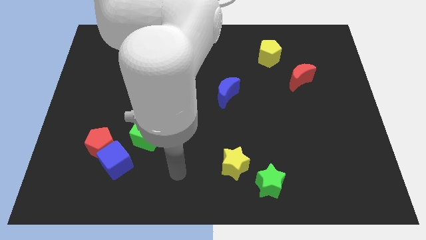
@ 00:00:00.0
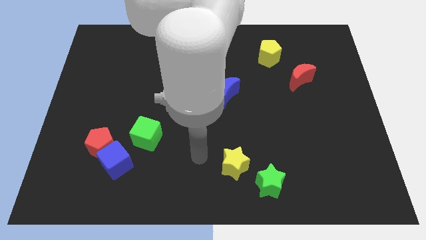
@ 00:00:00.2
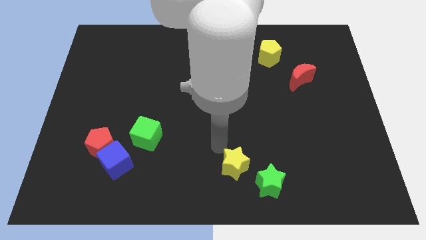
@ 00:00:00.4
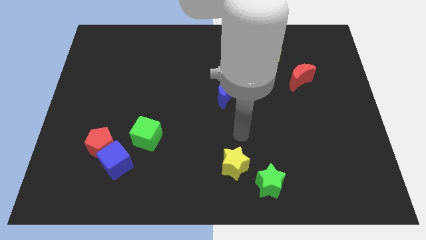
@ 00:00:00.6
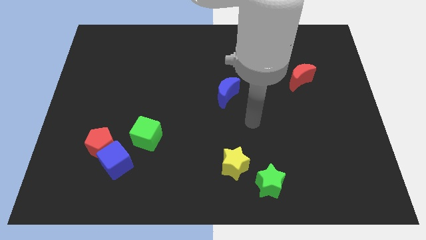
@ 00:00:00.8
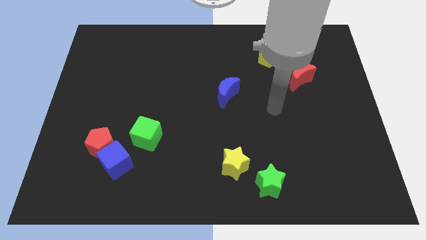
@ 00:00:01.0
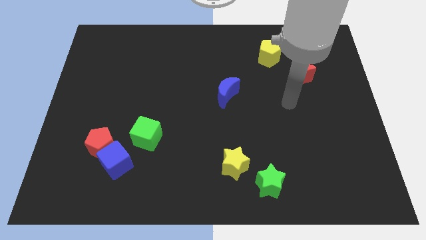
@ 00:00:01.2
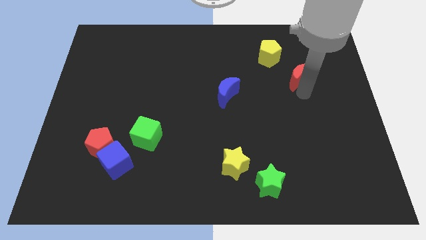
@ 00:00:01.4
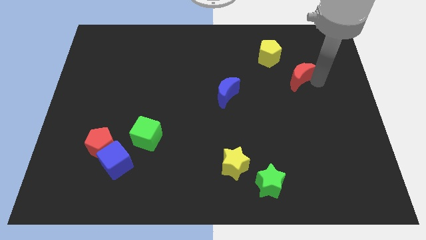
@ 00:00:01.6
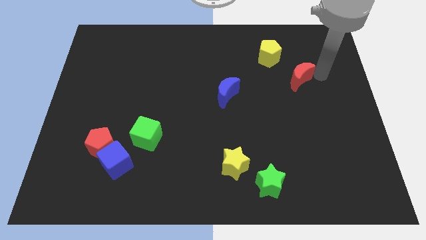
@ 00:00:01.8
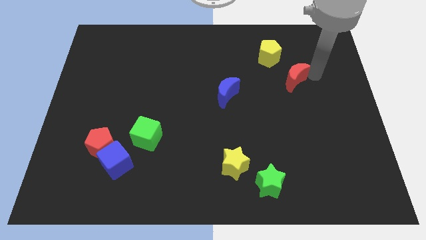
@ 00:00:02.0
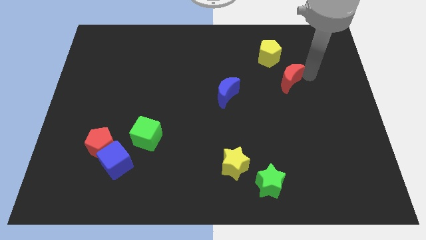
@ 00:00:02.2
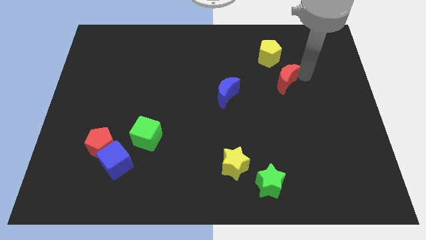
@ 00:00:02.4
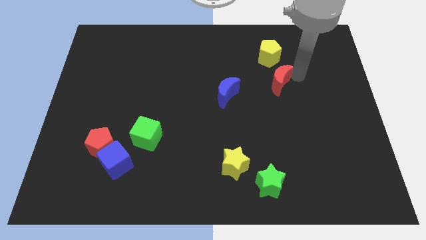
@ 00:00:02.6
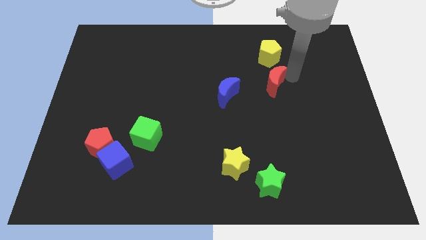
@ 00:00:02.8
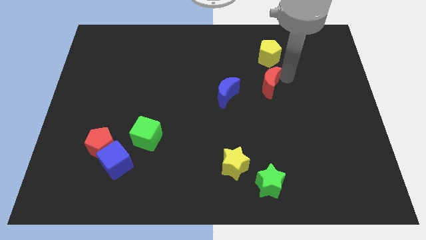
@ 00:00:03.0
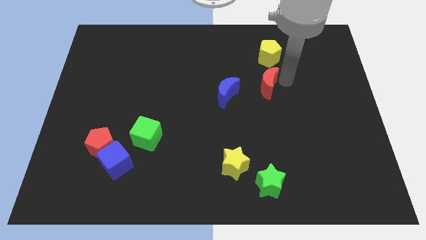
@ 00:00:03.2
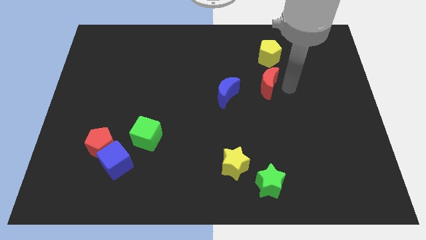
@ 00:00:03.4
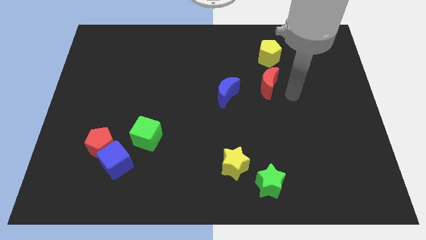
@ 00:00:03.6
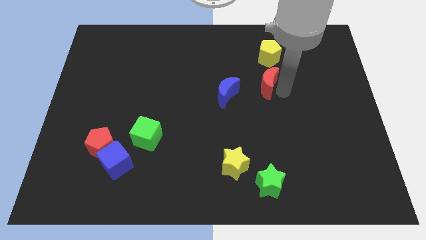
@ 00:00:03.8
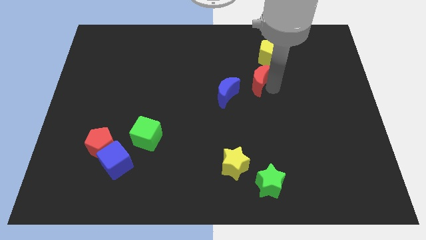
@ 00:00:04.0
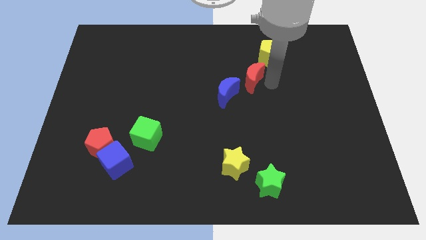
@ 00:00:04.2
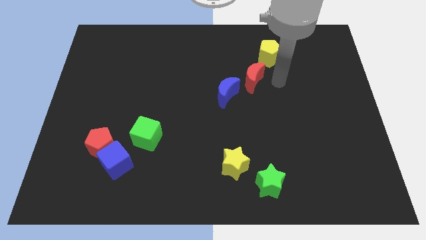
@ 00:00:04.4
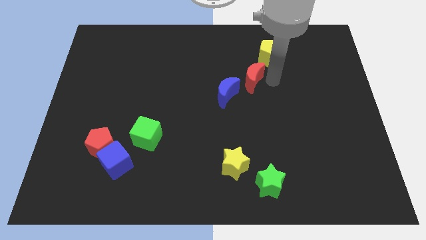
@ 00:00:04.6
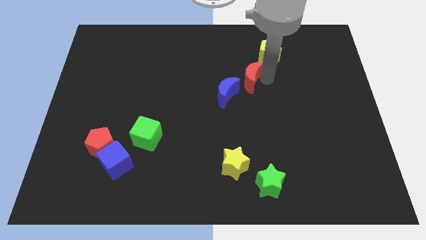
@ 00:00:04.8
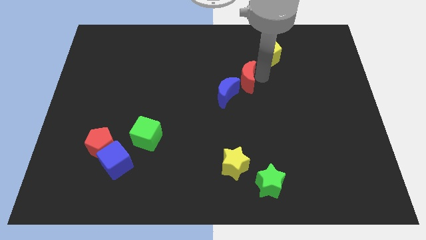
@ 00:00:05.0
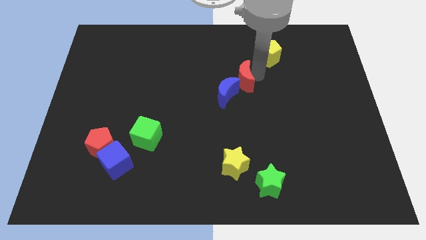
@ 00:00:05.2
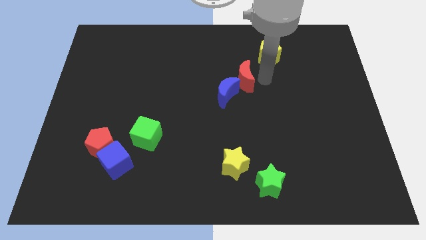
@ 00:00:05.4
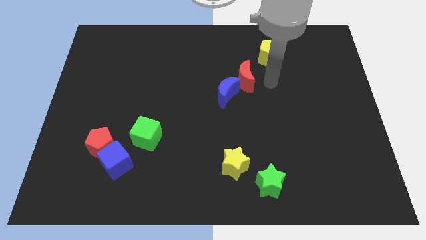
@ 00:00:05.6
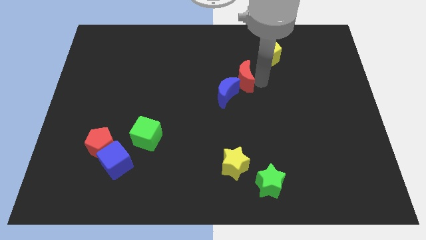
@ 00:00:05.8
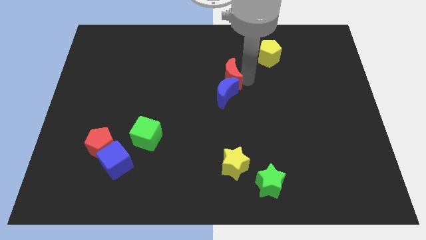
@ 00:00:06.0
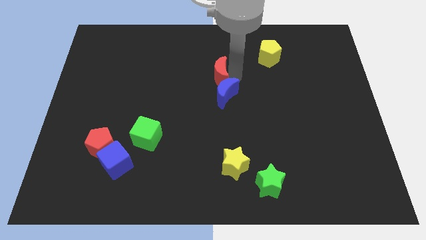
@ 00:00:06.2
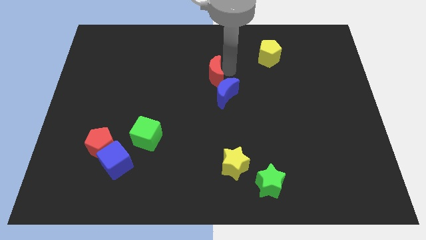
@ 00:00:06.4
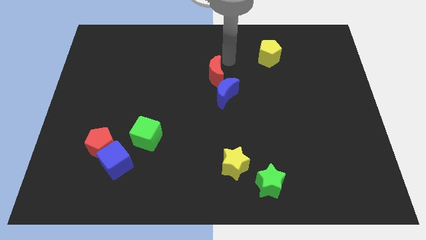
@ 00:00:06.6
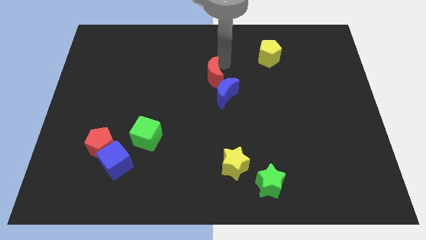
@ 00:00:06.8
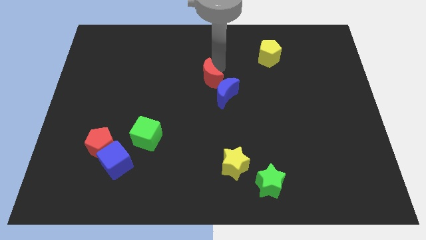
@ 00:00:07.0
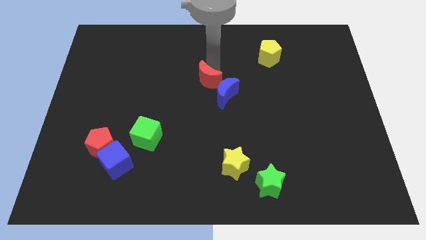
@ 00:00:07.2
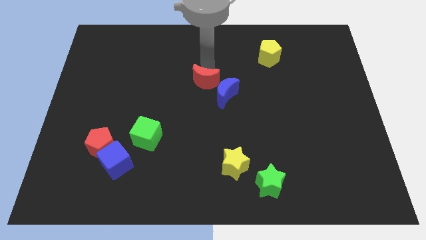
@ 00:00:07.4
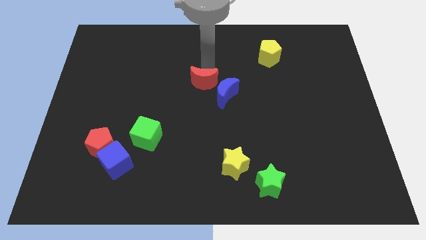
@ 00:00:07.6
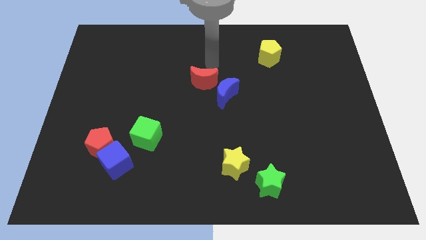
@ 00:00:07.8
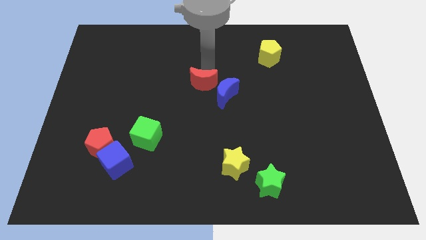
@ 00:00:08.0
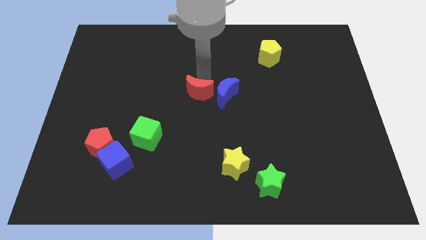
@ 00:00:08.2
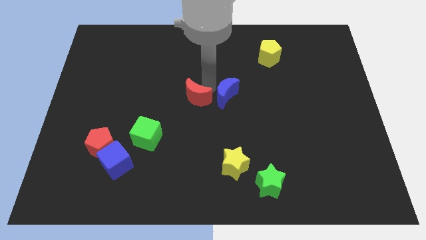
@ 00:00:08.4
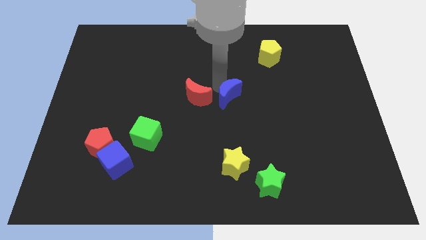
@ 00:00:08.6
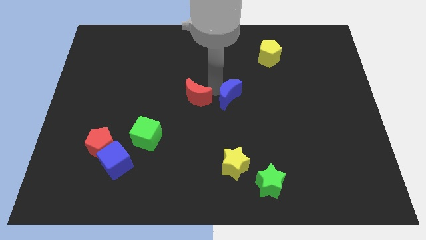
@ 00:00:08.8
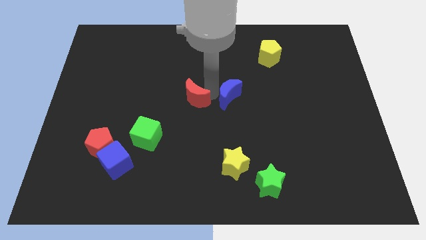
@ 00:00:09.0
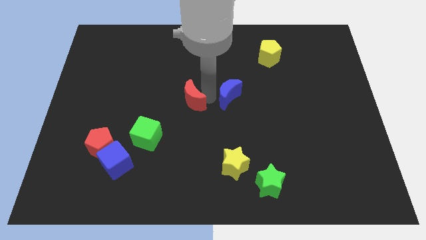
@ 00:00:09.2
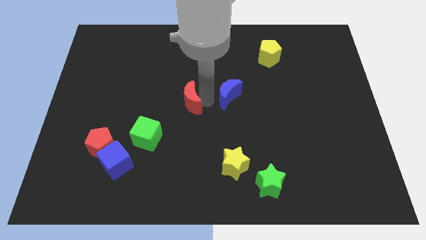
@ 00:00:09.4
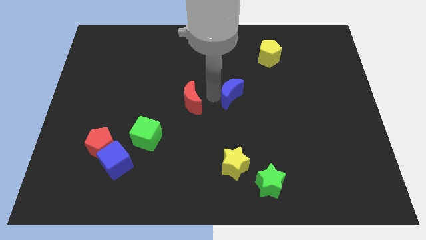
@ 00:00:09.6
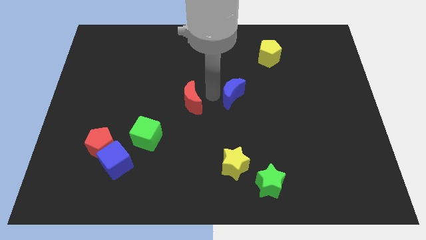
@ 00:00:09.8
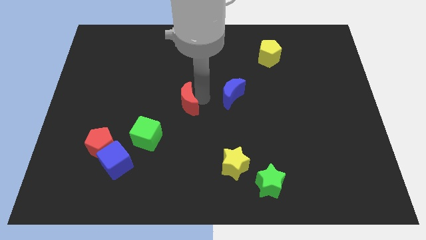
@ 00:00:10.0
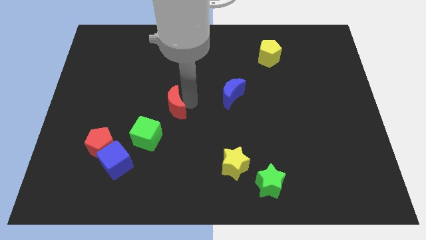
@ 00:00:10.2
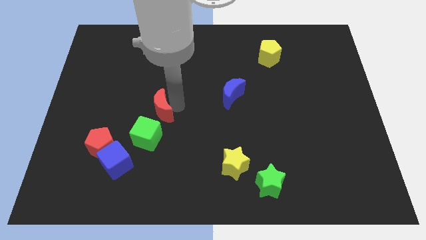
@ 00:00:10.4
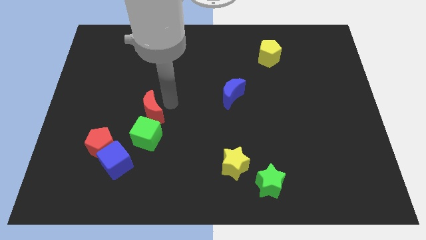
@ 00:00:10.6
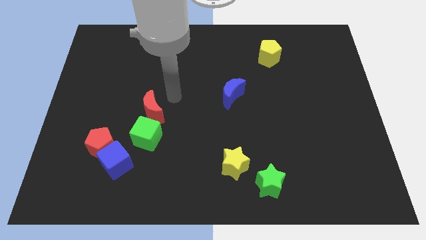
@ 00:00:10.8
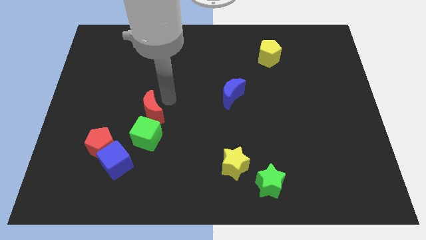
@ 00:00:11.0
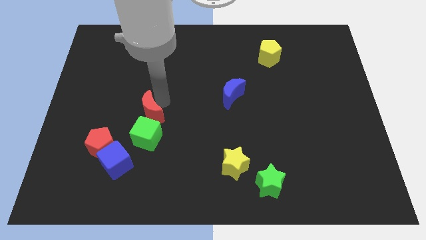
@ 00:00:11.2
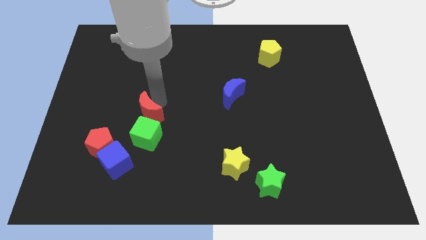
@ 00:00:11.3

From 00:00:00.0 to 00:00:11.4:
put the red moon diagonally up and to the right of the red pentagon

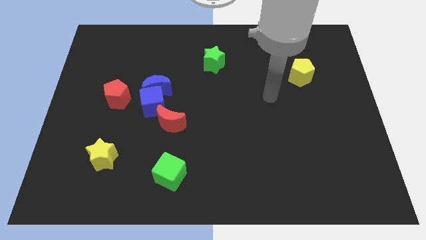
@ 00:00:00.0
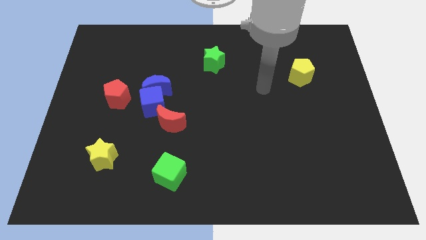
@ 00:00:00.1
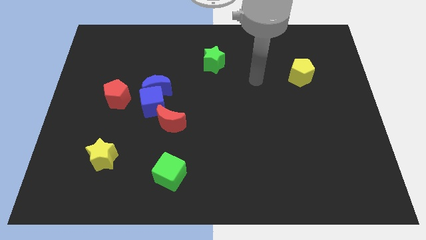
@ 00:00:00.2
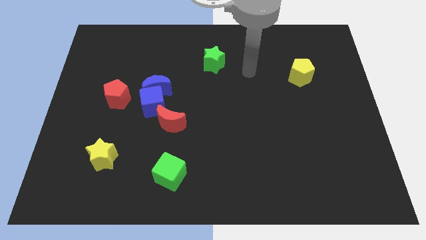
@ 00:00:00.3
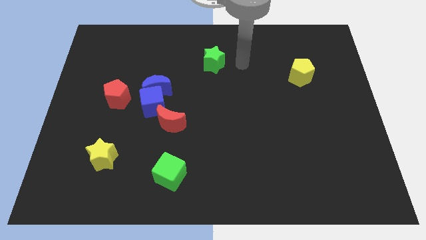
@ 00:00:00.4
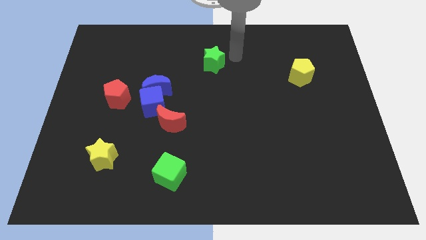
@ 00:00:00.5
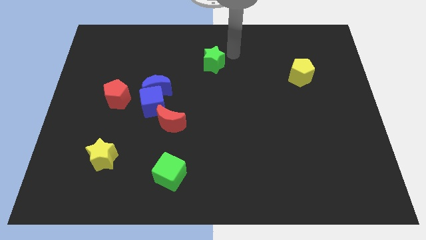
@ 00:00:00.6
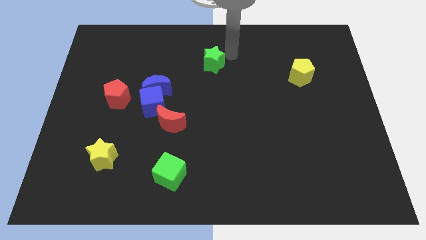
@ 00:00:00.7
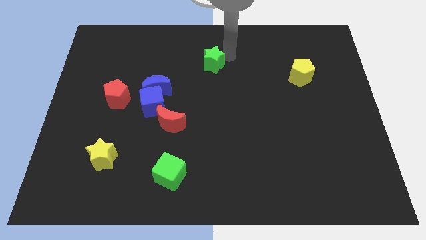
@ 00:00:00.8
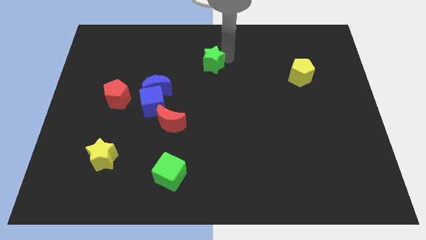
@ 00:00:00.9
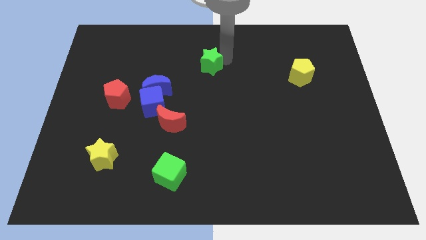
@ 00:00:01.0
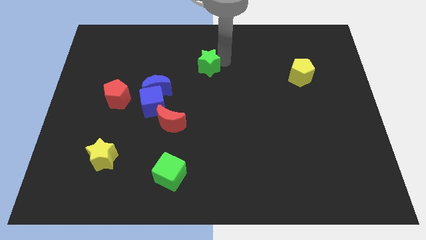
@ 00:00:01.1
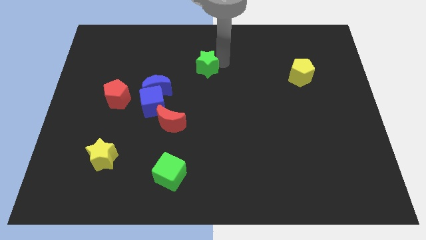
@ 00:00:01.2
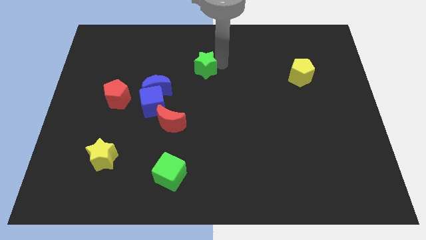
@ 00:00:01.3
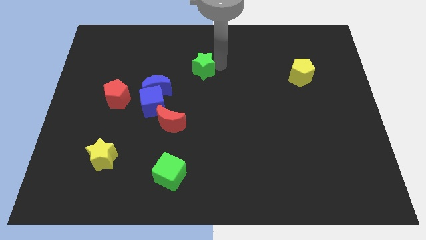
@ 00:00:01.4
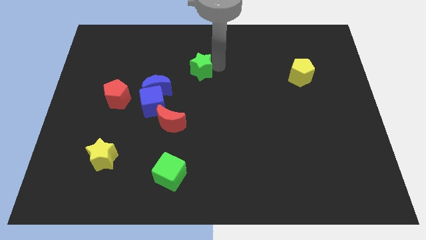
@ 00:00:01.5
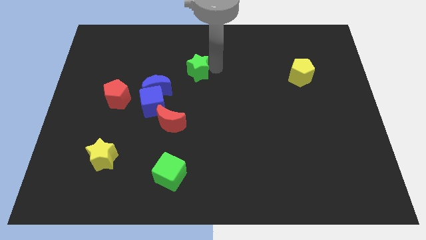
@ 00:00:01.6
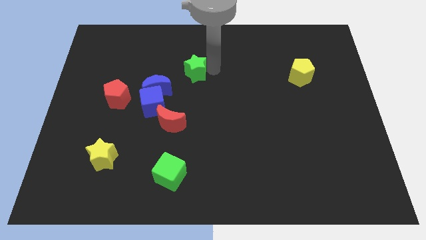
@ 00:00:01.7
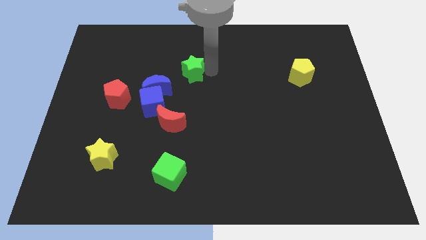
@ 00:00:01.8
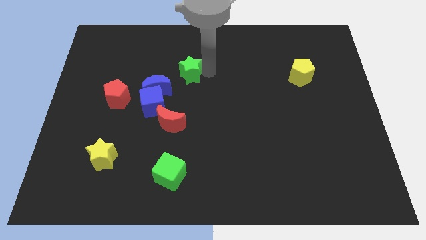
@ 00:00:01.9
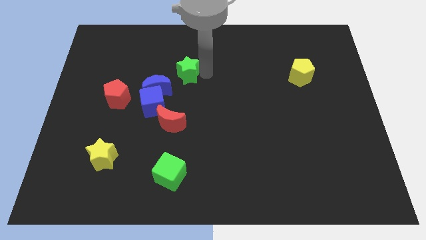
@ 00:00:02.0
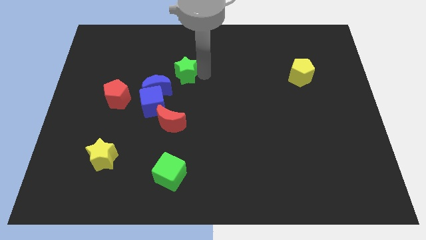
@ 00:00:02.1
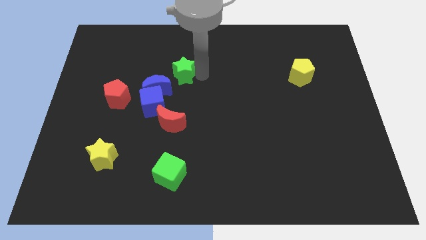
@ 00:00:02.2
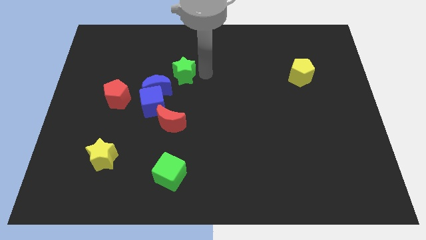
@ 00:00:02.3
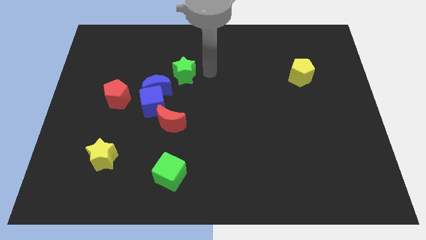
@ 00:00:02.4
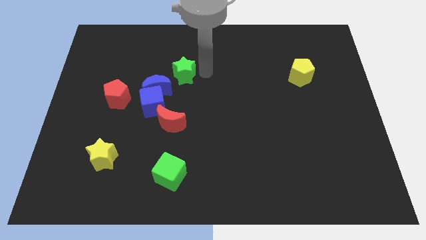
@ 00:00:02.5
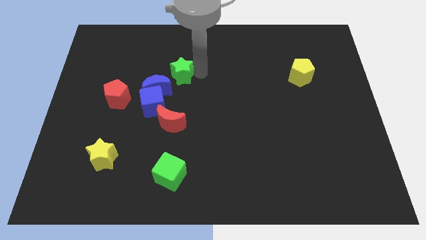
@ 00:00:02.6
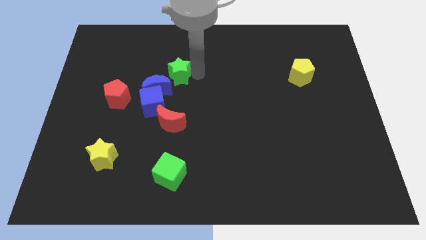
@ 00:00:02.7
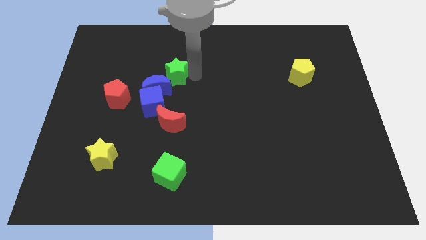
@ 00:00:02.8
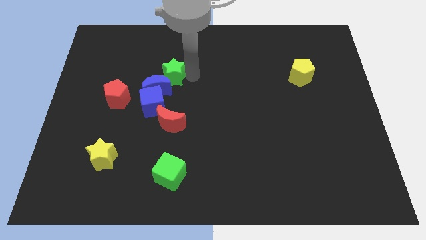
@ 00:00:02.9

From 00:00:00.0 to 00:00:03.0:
move the green star to the top of the blue cube
